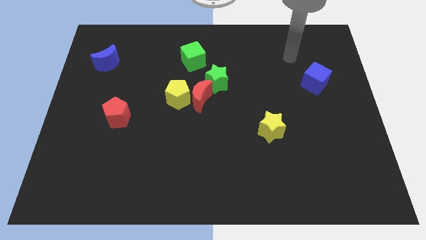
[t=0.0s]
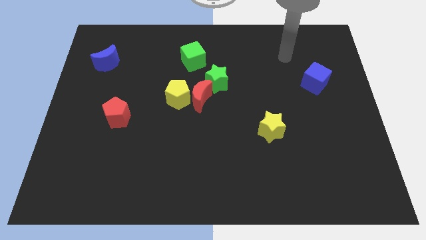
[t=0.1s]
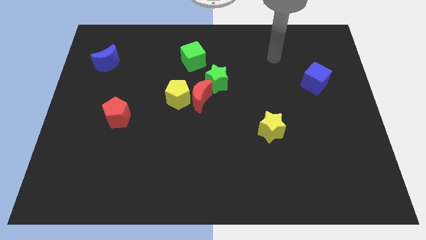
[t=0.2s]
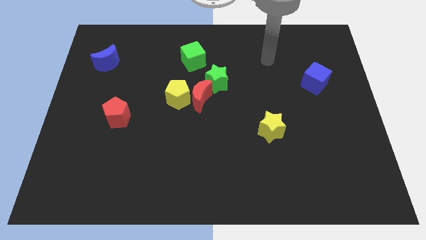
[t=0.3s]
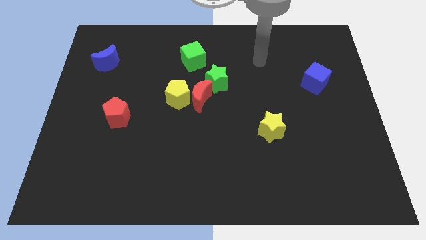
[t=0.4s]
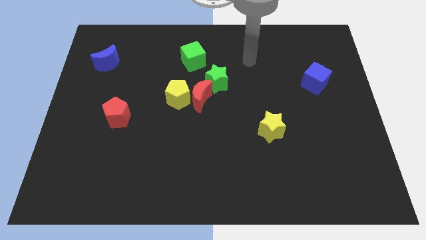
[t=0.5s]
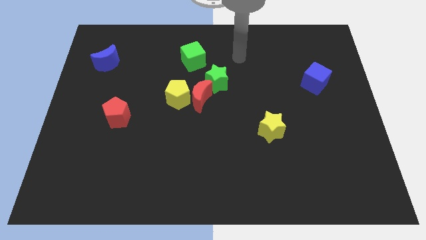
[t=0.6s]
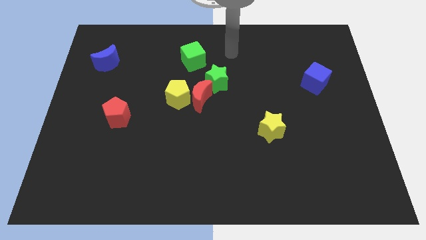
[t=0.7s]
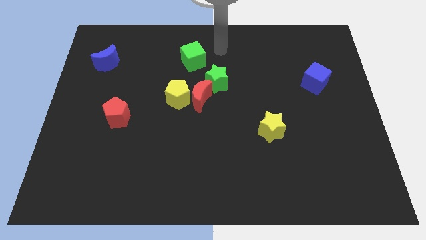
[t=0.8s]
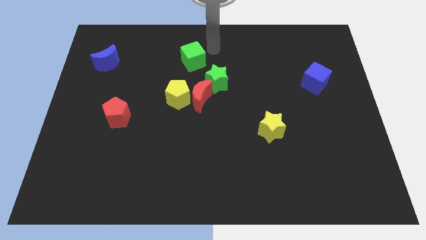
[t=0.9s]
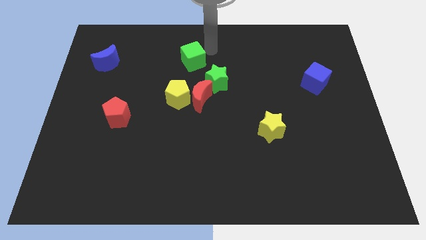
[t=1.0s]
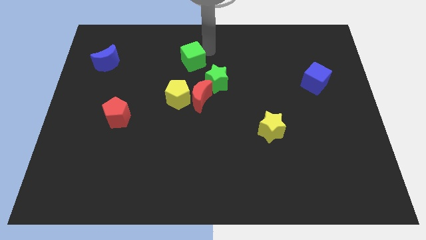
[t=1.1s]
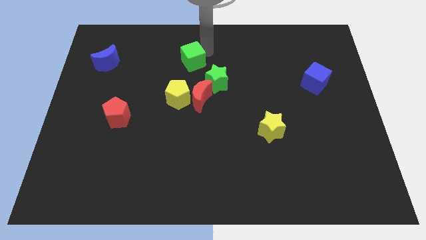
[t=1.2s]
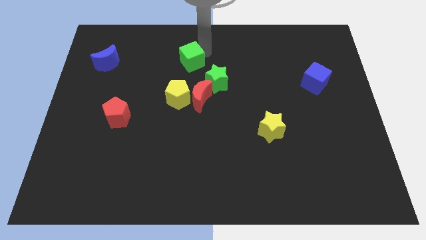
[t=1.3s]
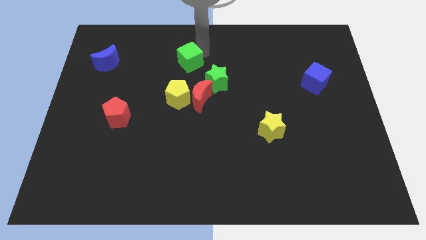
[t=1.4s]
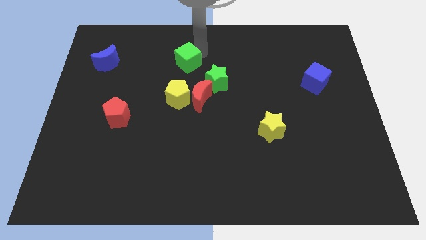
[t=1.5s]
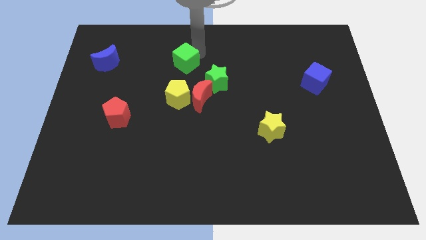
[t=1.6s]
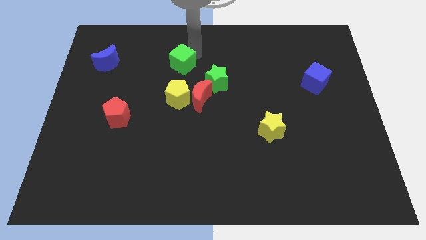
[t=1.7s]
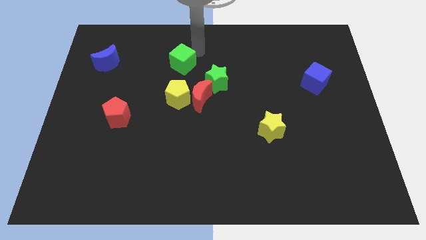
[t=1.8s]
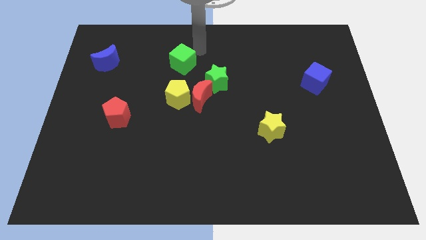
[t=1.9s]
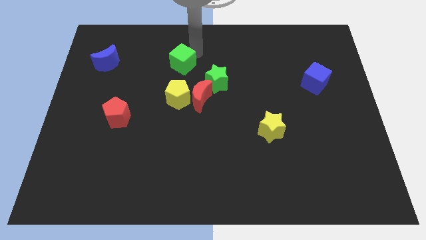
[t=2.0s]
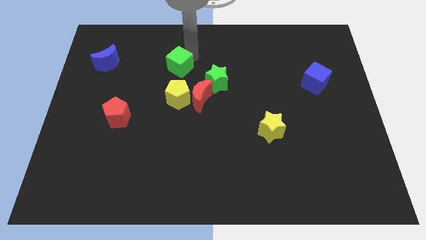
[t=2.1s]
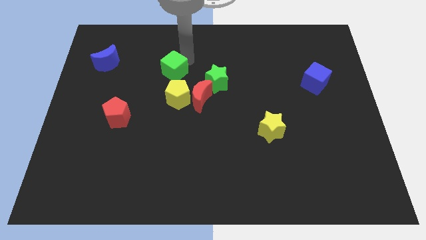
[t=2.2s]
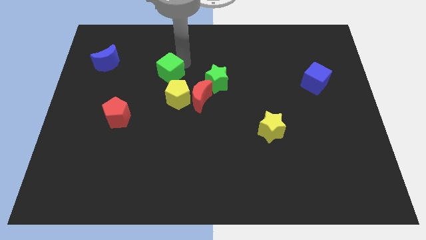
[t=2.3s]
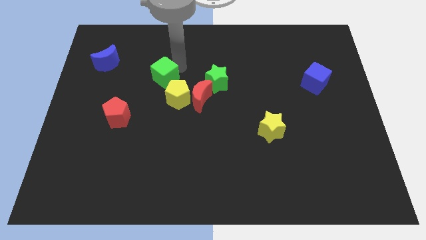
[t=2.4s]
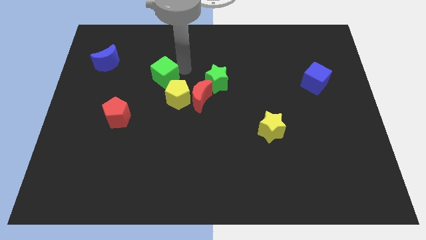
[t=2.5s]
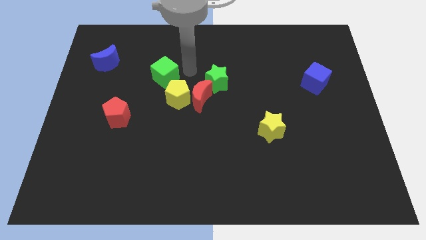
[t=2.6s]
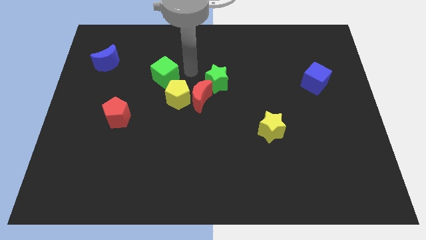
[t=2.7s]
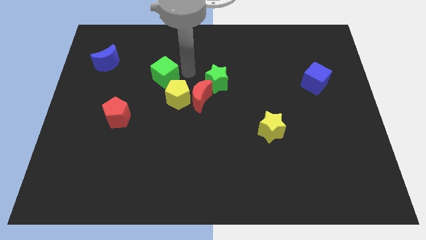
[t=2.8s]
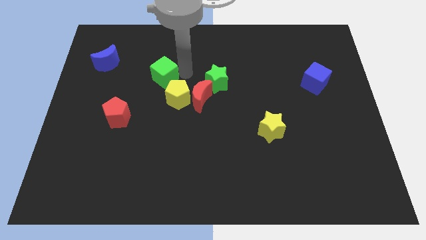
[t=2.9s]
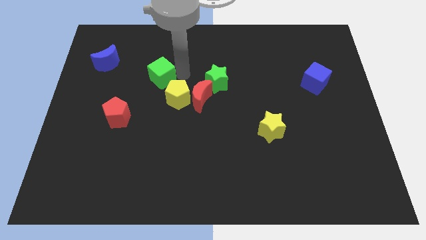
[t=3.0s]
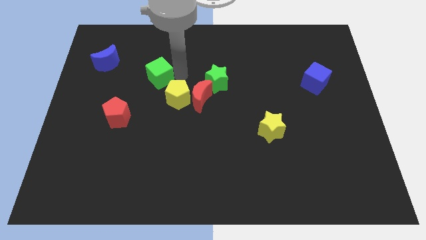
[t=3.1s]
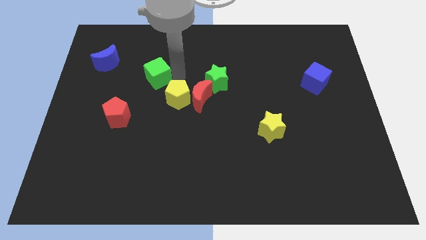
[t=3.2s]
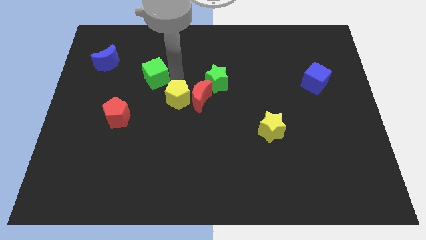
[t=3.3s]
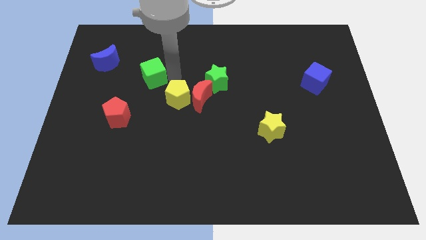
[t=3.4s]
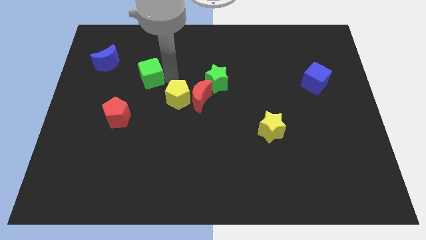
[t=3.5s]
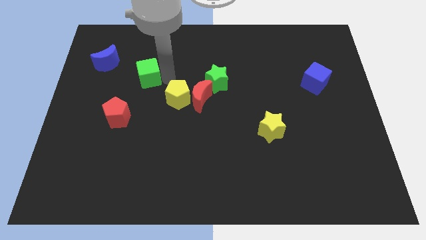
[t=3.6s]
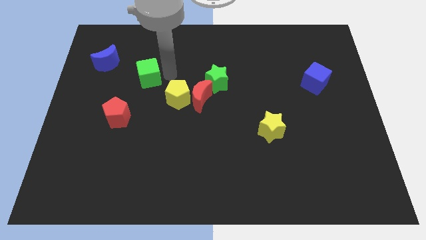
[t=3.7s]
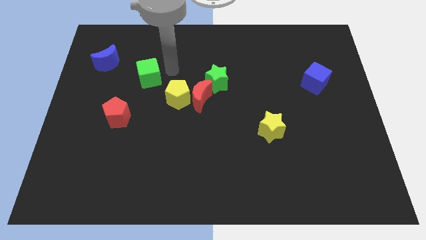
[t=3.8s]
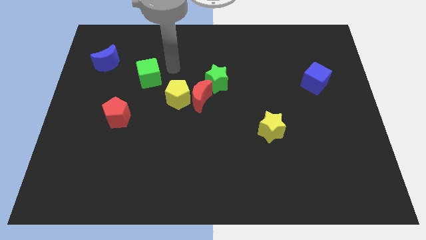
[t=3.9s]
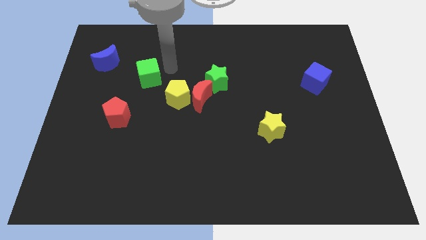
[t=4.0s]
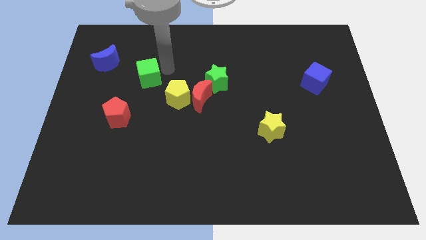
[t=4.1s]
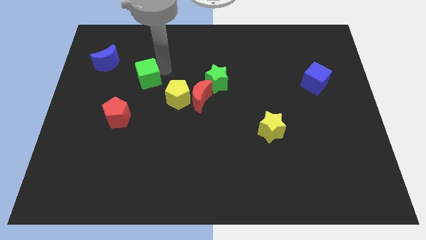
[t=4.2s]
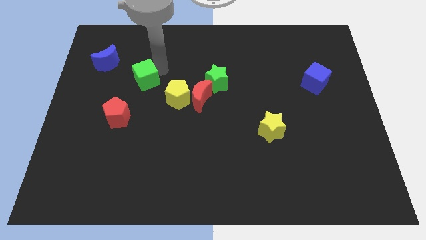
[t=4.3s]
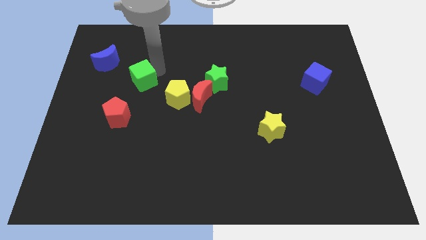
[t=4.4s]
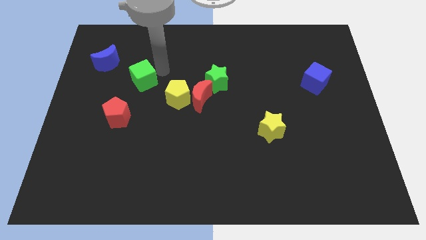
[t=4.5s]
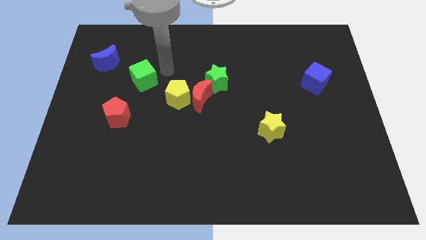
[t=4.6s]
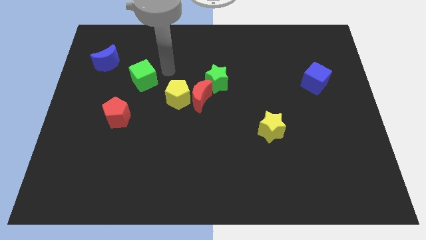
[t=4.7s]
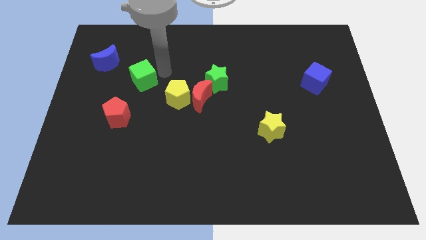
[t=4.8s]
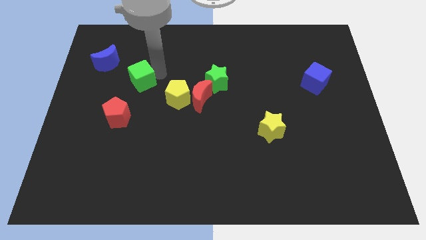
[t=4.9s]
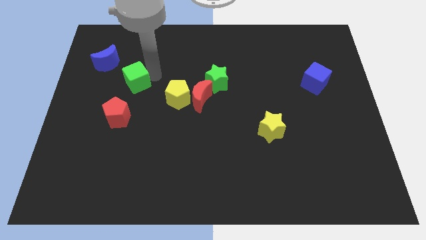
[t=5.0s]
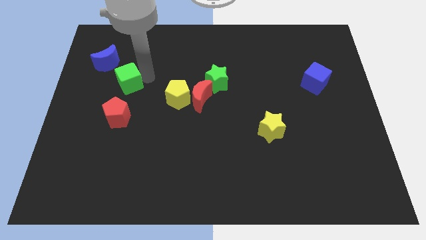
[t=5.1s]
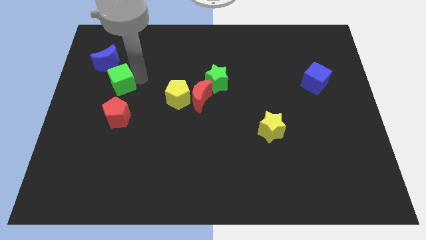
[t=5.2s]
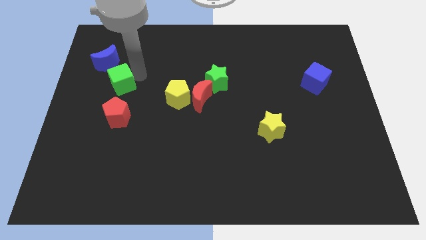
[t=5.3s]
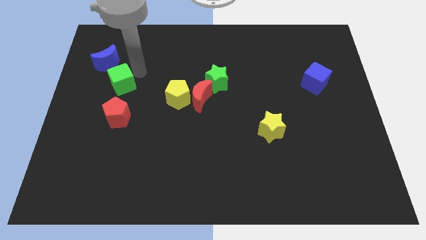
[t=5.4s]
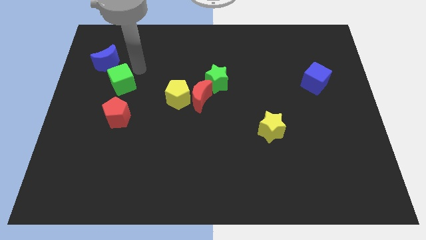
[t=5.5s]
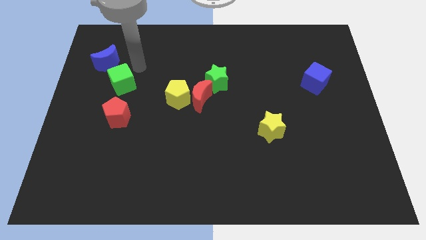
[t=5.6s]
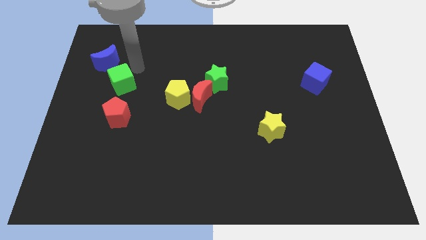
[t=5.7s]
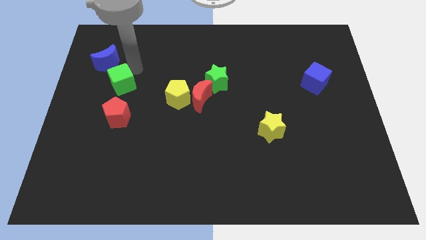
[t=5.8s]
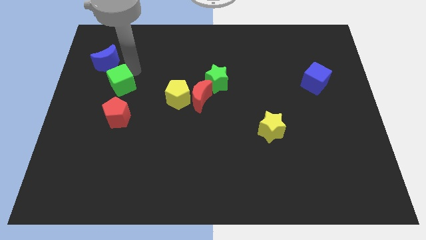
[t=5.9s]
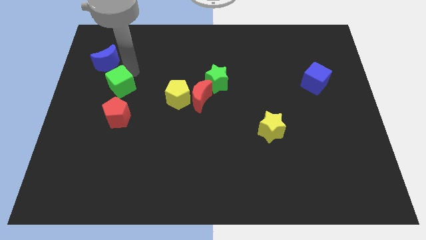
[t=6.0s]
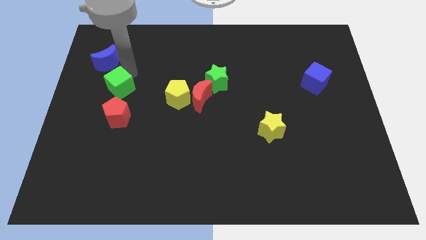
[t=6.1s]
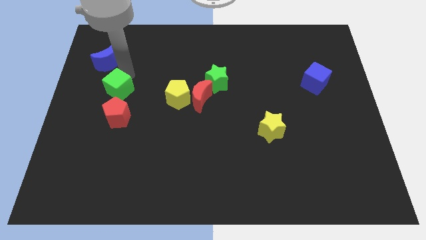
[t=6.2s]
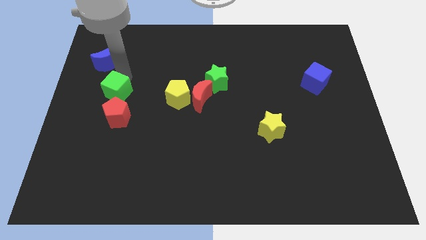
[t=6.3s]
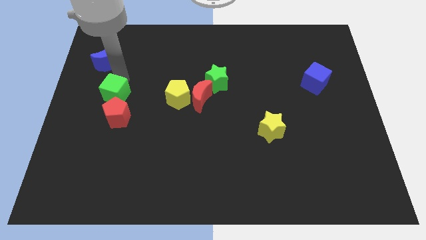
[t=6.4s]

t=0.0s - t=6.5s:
slide the green cube down and to the left

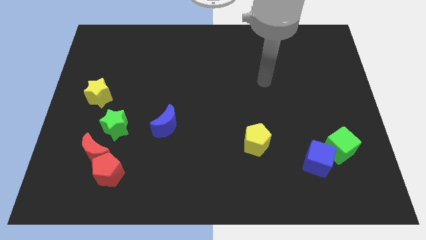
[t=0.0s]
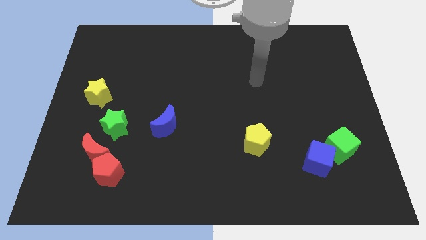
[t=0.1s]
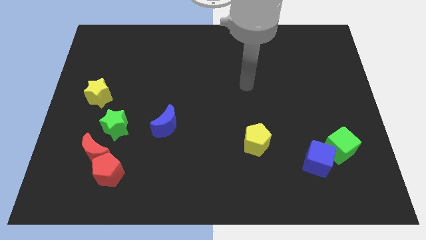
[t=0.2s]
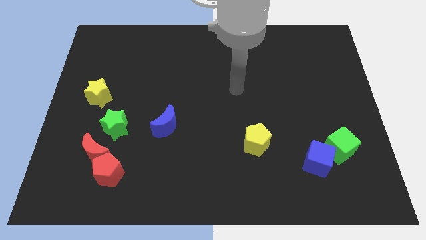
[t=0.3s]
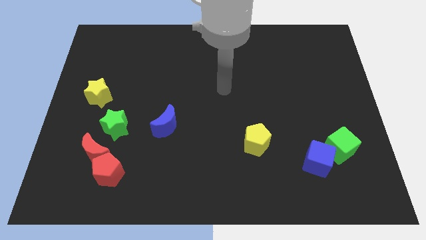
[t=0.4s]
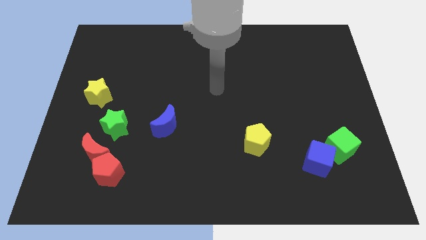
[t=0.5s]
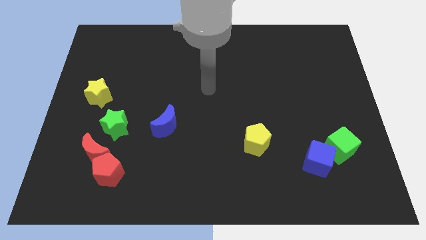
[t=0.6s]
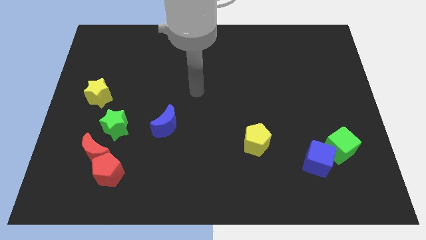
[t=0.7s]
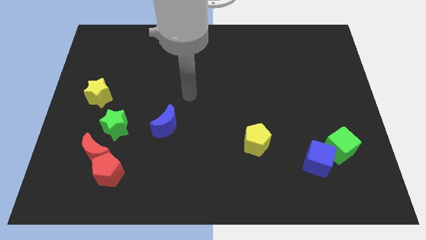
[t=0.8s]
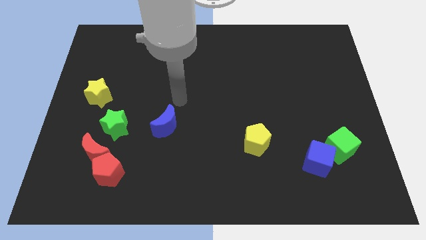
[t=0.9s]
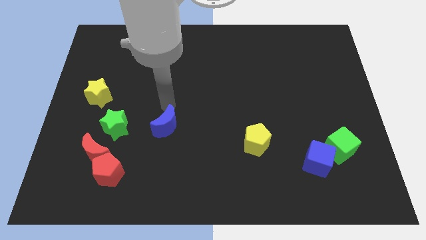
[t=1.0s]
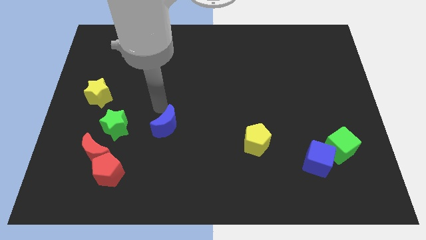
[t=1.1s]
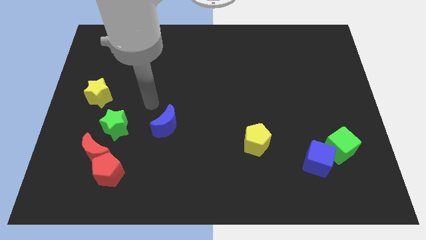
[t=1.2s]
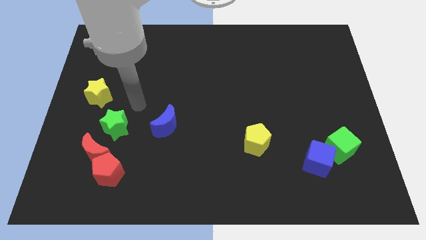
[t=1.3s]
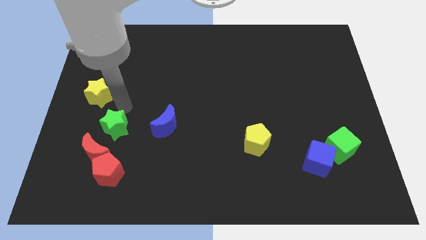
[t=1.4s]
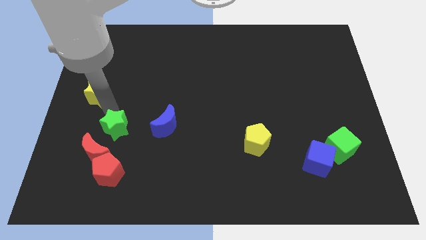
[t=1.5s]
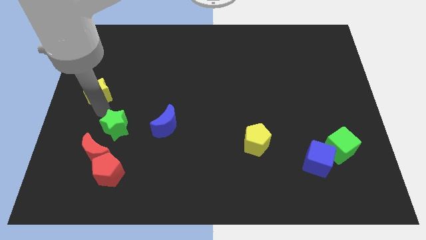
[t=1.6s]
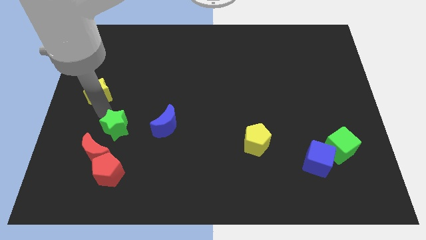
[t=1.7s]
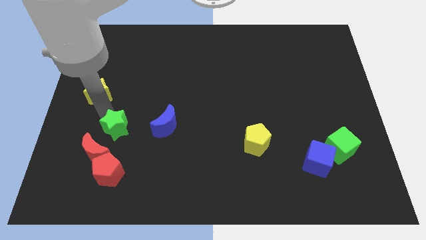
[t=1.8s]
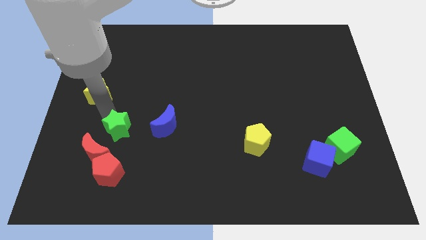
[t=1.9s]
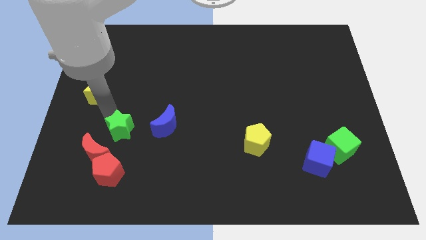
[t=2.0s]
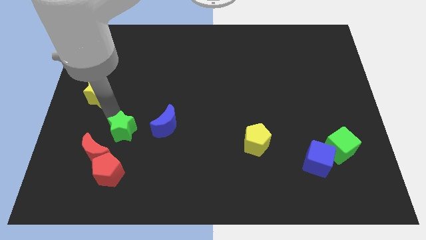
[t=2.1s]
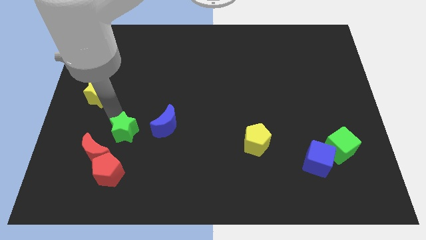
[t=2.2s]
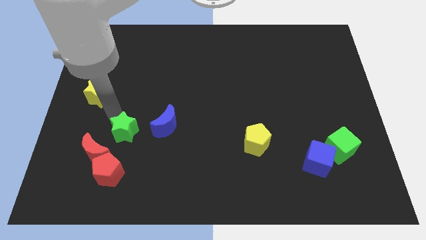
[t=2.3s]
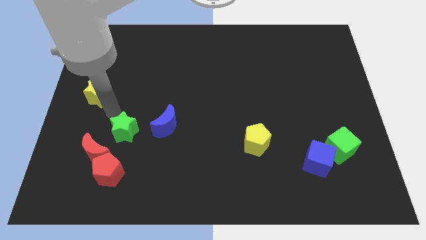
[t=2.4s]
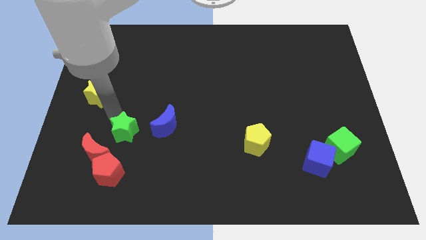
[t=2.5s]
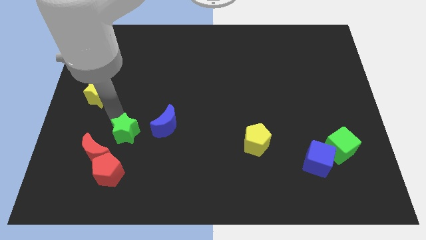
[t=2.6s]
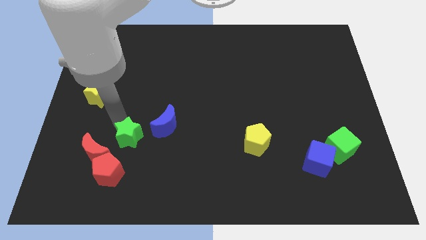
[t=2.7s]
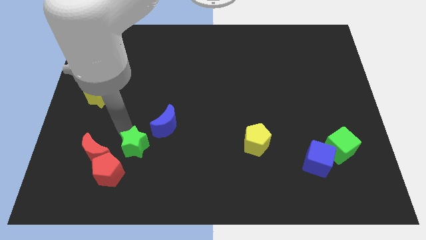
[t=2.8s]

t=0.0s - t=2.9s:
slightly push the green star downwards and right
